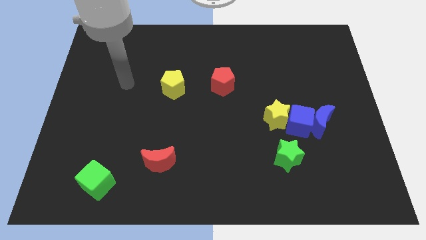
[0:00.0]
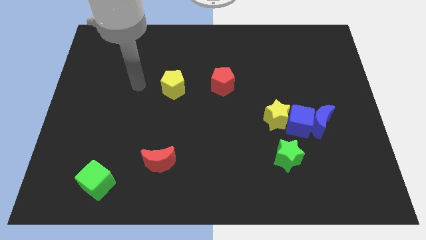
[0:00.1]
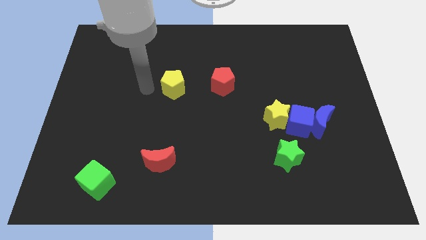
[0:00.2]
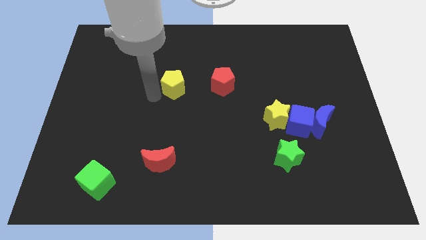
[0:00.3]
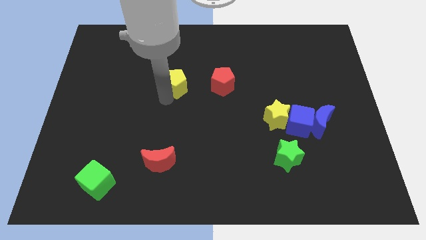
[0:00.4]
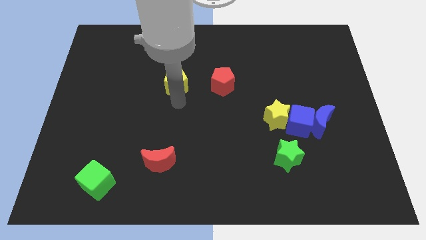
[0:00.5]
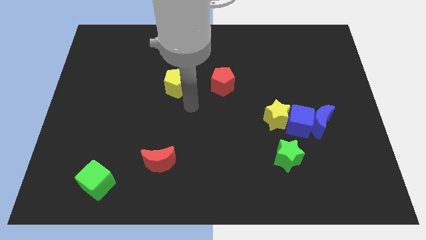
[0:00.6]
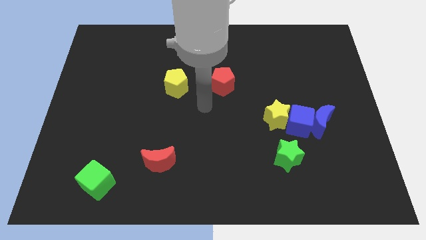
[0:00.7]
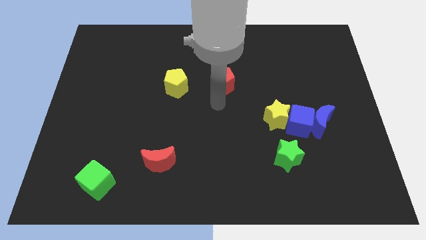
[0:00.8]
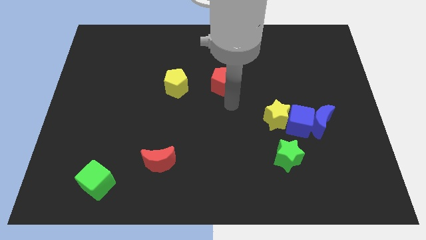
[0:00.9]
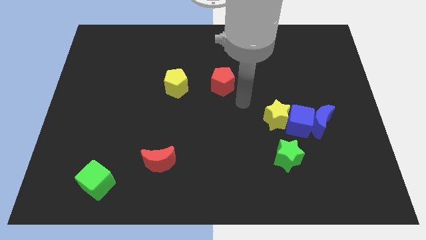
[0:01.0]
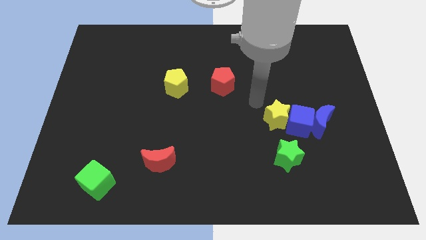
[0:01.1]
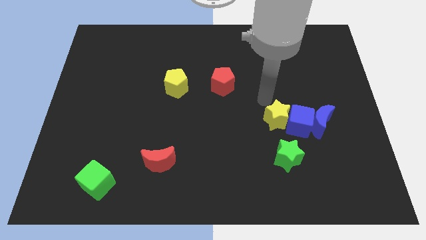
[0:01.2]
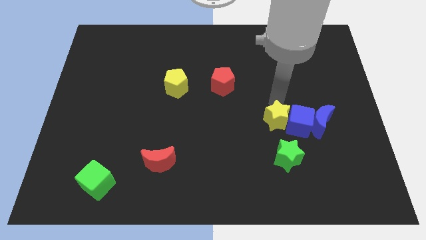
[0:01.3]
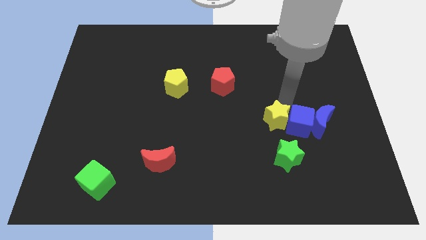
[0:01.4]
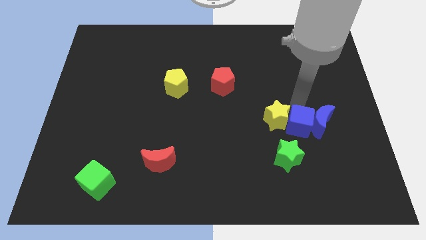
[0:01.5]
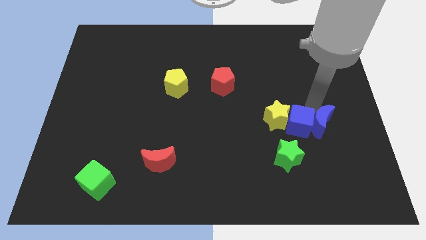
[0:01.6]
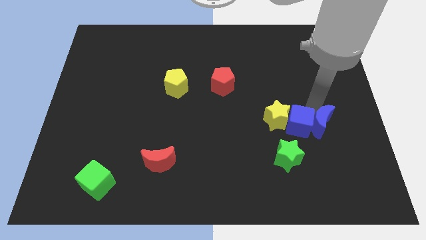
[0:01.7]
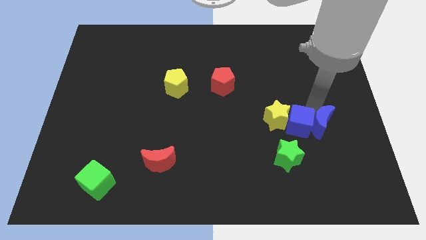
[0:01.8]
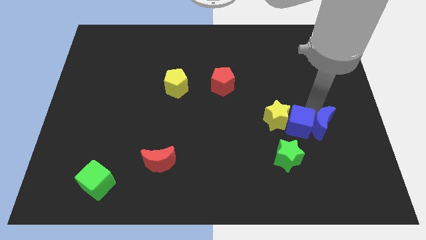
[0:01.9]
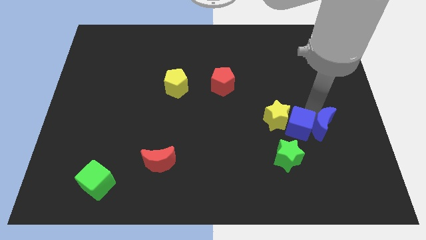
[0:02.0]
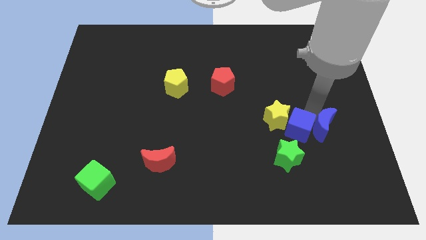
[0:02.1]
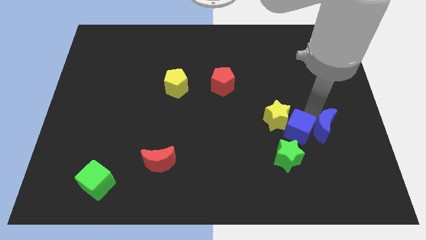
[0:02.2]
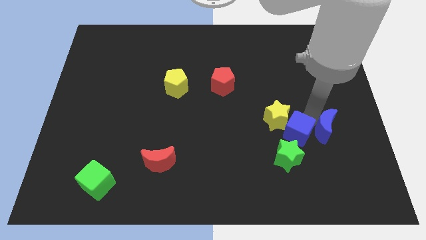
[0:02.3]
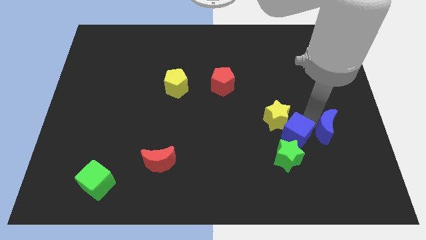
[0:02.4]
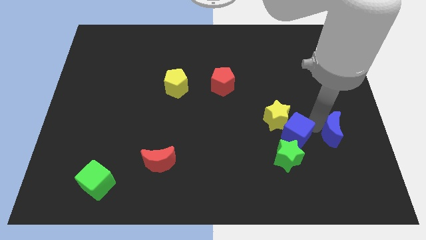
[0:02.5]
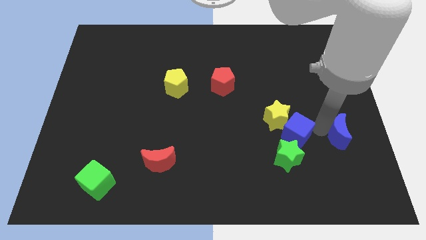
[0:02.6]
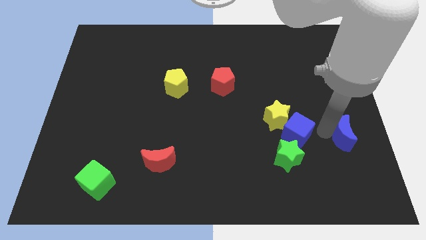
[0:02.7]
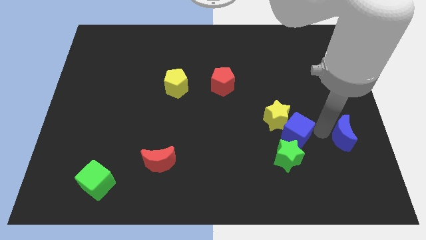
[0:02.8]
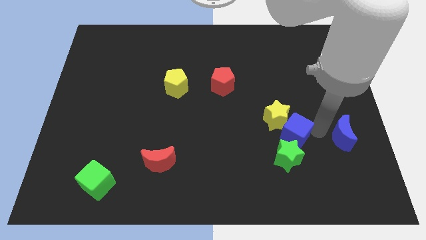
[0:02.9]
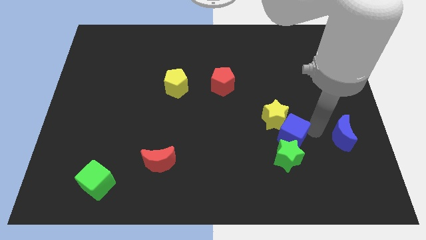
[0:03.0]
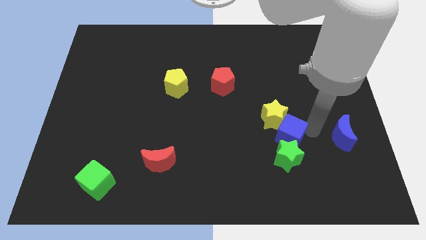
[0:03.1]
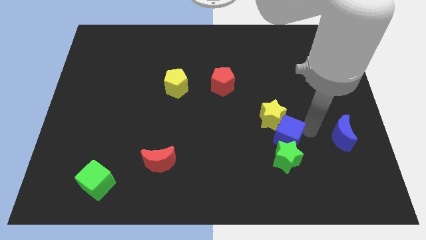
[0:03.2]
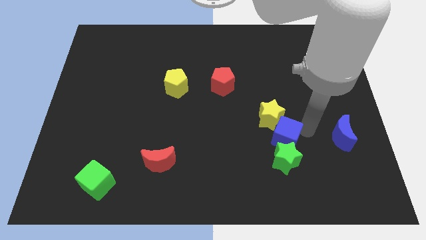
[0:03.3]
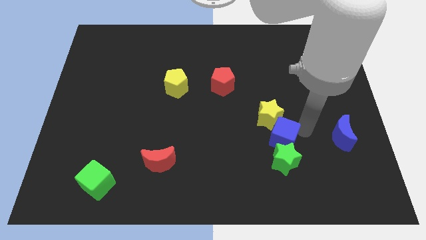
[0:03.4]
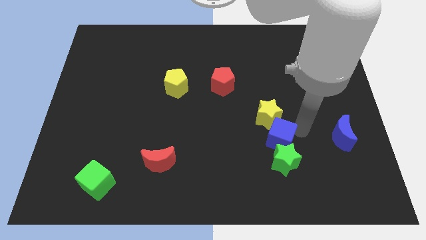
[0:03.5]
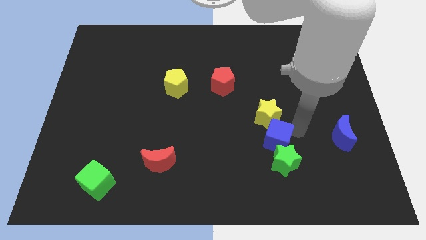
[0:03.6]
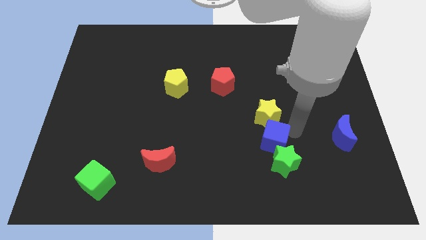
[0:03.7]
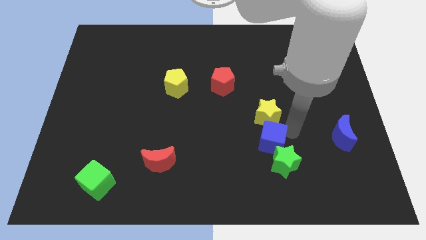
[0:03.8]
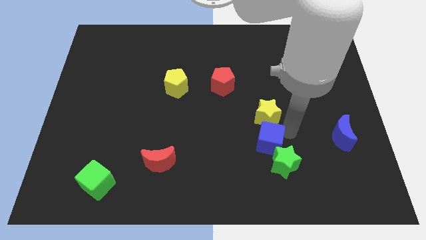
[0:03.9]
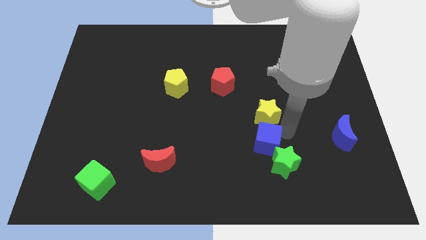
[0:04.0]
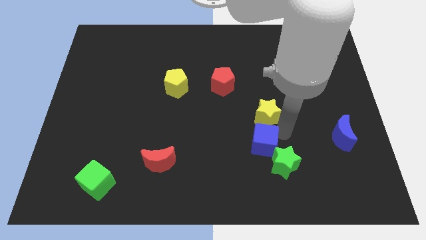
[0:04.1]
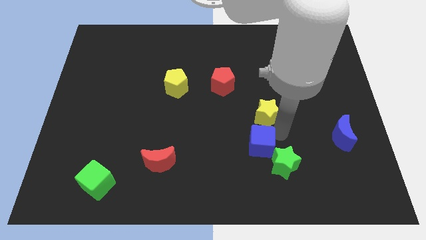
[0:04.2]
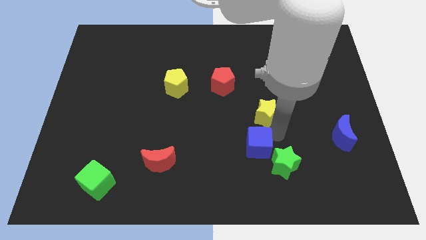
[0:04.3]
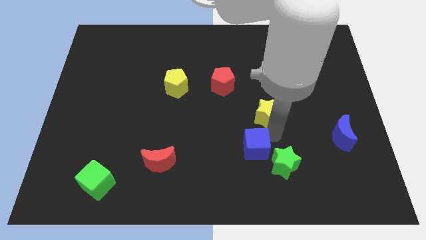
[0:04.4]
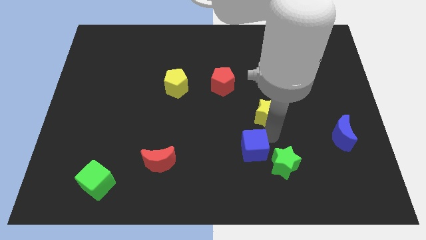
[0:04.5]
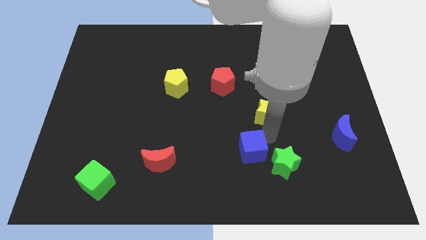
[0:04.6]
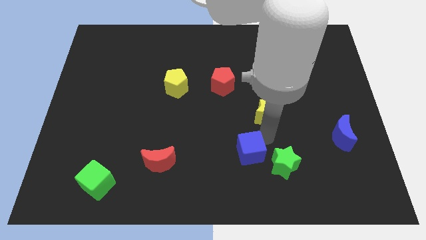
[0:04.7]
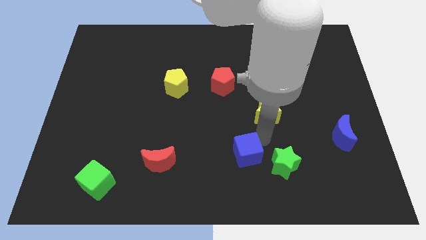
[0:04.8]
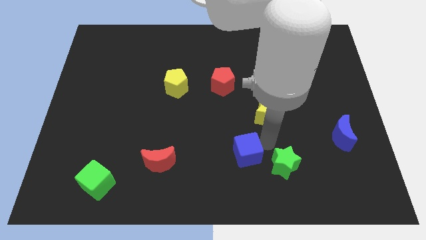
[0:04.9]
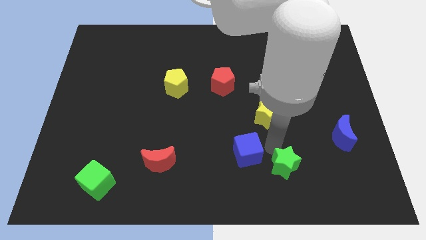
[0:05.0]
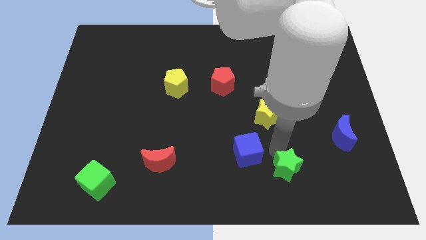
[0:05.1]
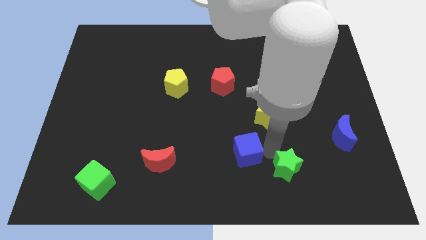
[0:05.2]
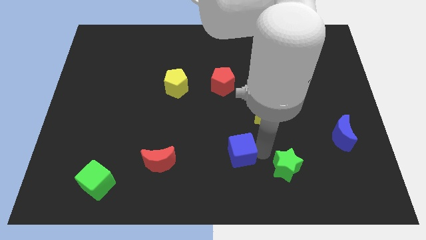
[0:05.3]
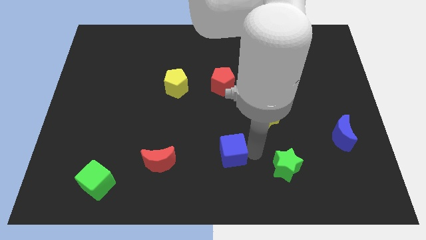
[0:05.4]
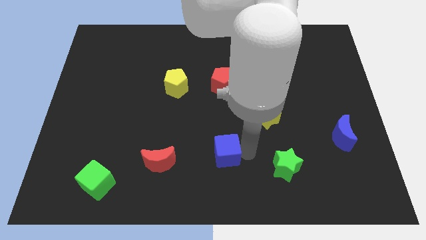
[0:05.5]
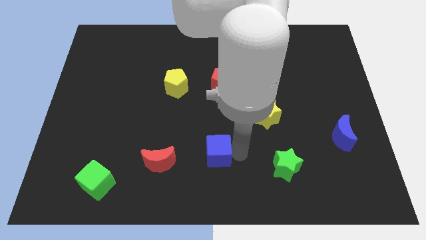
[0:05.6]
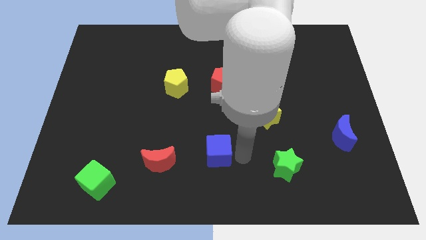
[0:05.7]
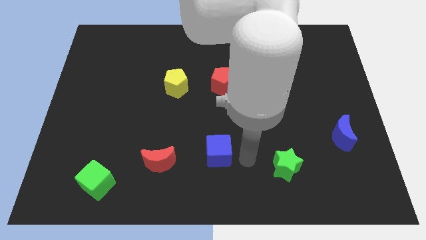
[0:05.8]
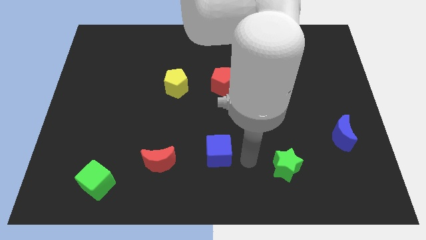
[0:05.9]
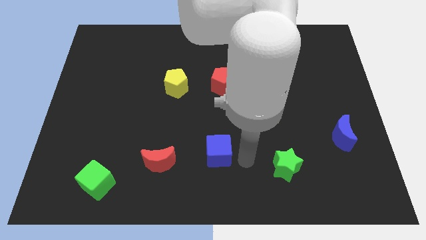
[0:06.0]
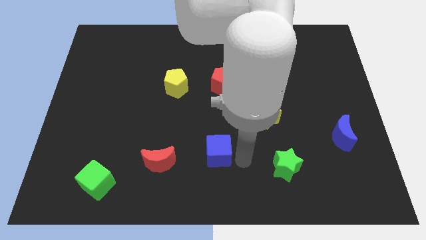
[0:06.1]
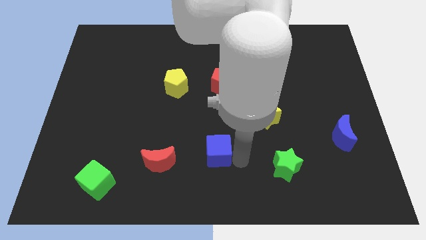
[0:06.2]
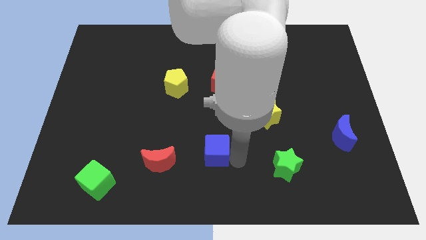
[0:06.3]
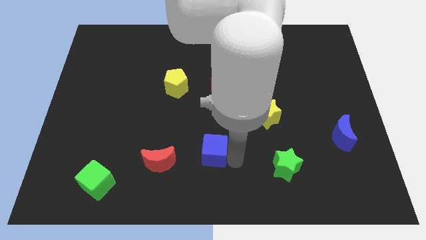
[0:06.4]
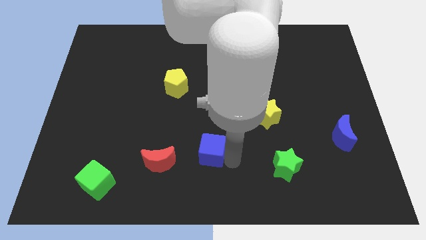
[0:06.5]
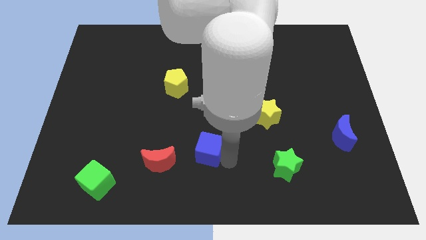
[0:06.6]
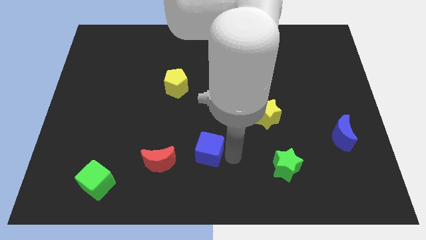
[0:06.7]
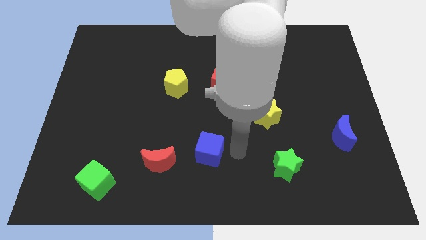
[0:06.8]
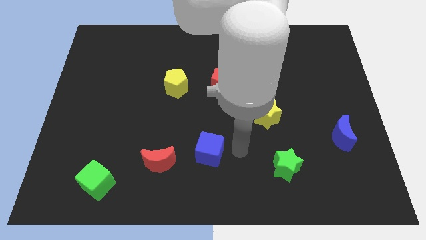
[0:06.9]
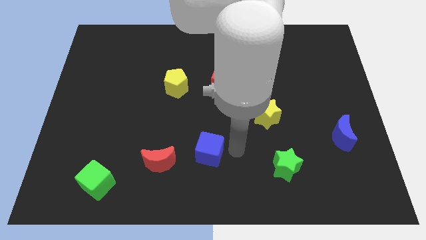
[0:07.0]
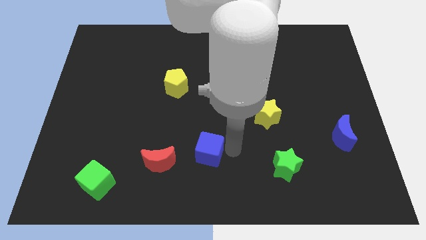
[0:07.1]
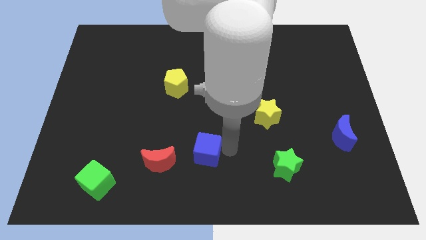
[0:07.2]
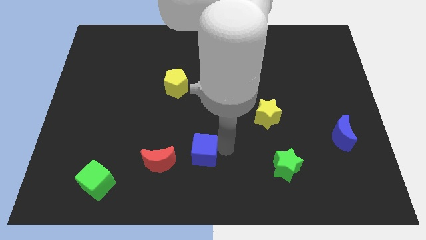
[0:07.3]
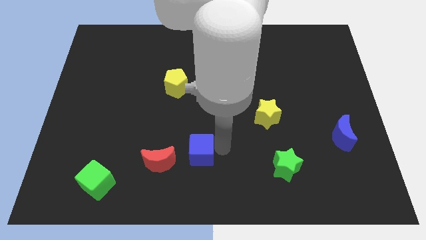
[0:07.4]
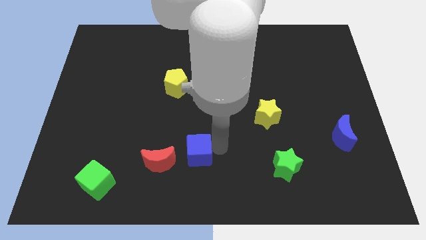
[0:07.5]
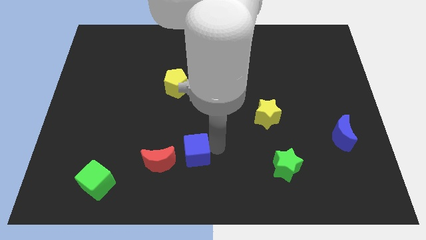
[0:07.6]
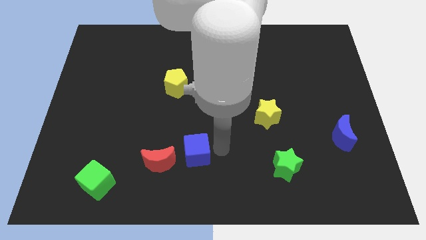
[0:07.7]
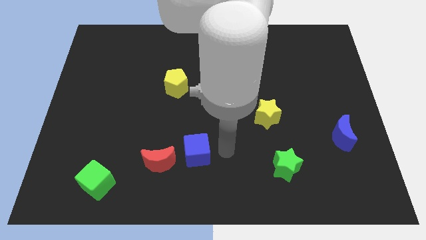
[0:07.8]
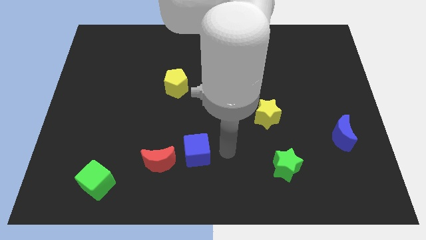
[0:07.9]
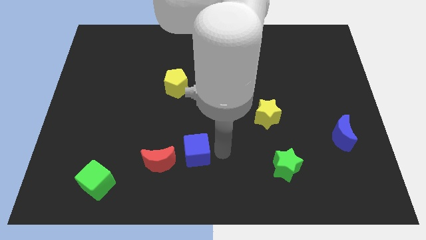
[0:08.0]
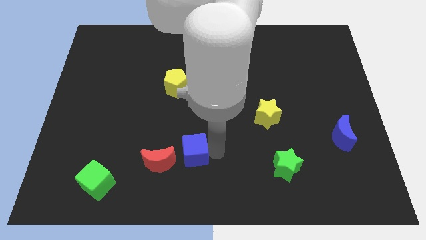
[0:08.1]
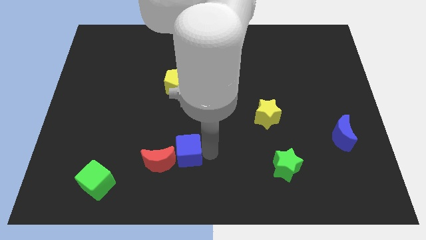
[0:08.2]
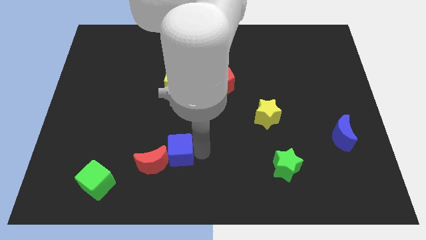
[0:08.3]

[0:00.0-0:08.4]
put the blue cube towards the red moon
